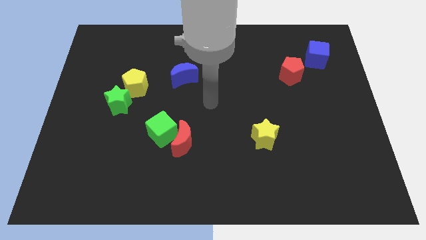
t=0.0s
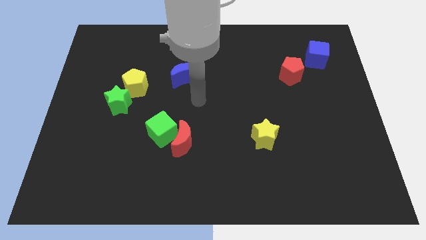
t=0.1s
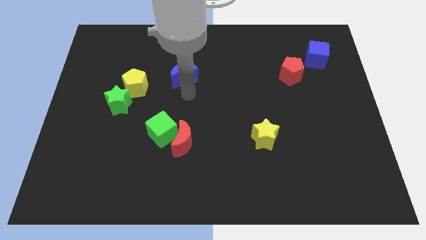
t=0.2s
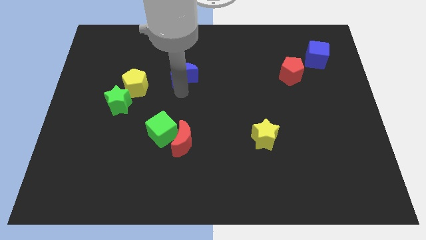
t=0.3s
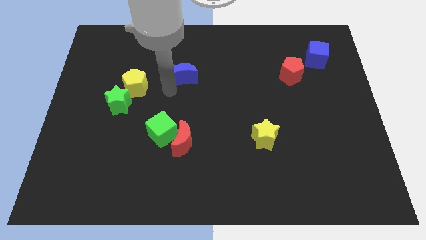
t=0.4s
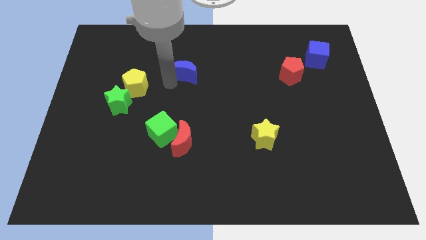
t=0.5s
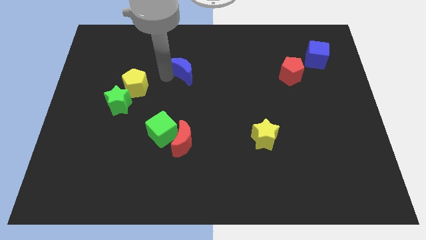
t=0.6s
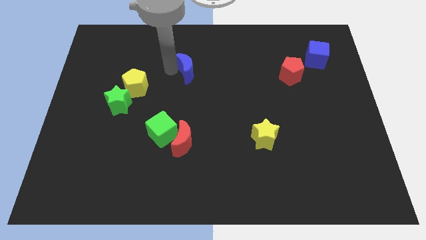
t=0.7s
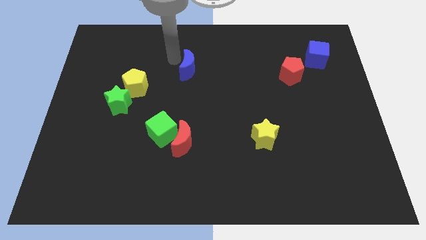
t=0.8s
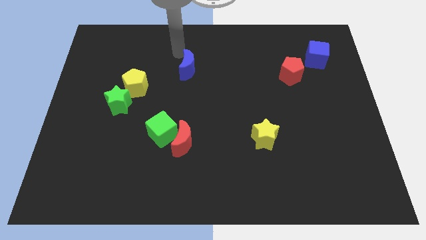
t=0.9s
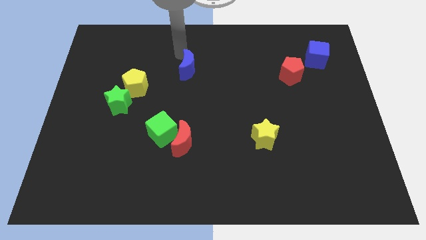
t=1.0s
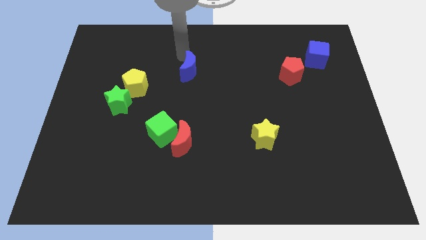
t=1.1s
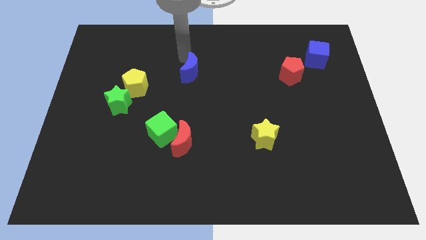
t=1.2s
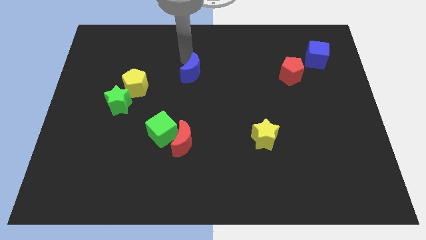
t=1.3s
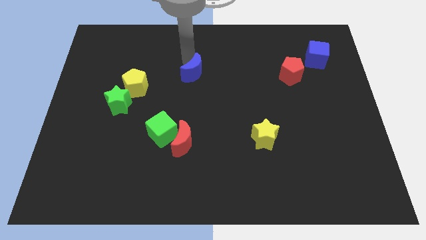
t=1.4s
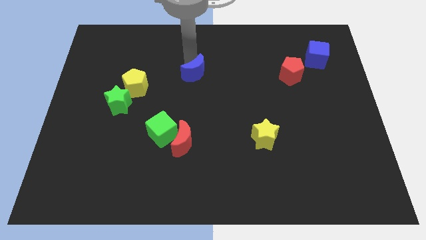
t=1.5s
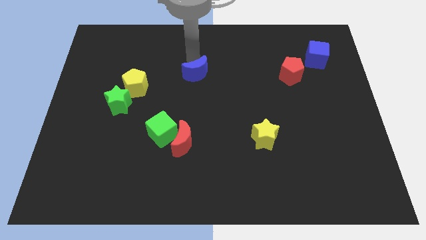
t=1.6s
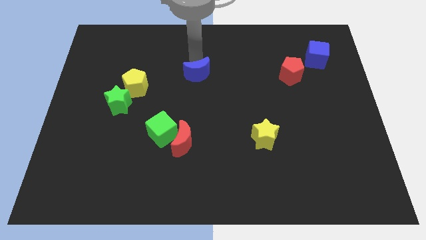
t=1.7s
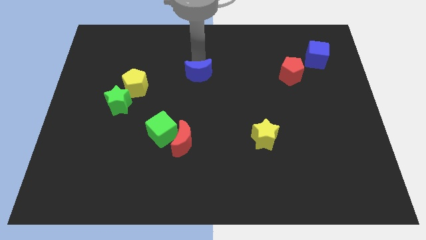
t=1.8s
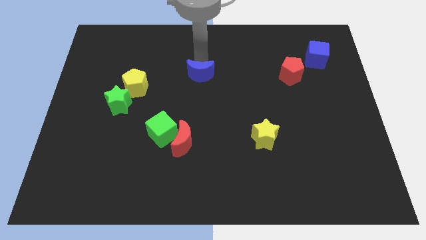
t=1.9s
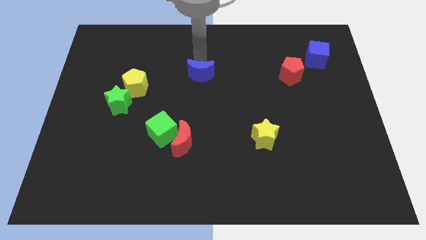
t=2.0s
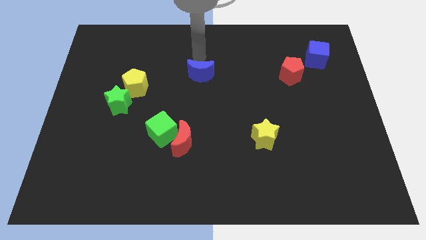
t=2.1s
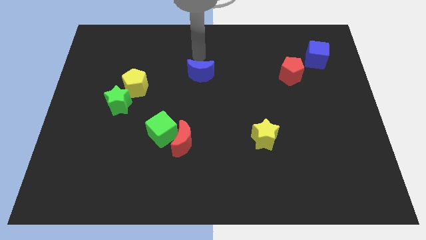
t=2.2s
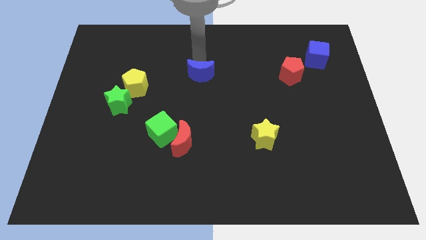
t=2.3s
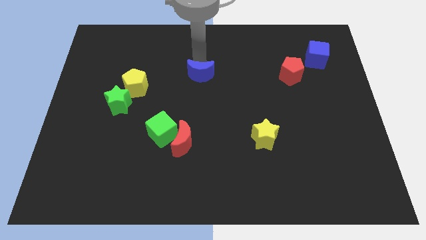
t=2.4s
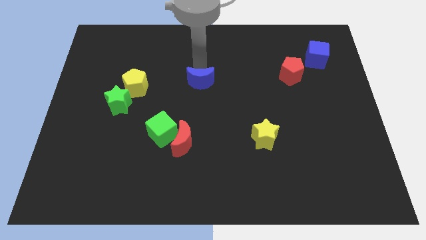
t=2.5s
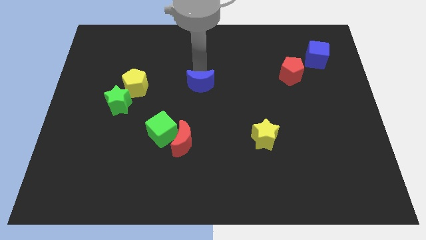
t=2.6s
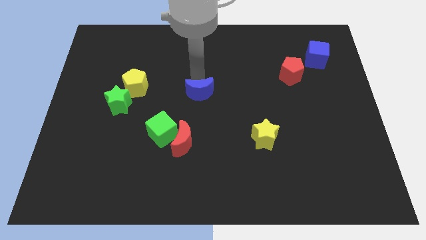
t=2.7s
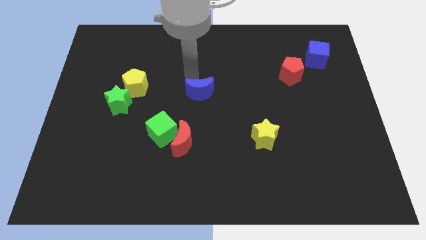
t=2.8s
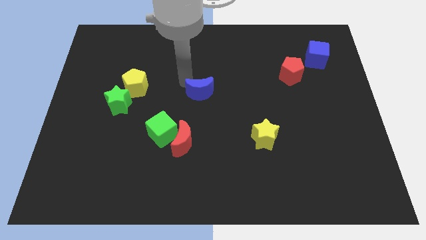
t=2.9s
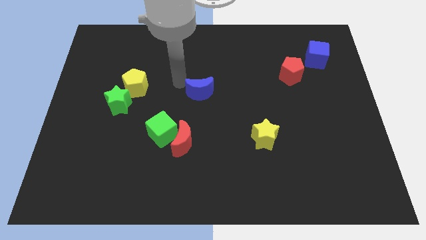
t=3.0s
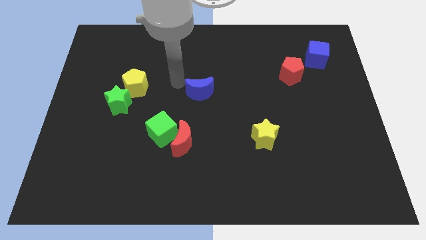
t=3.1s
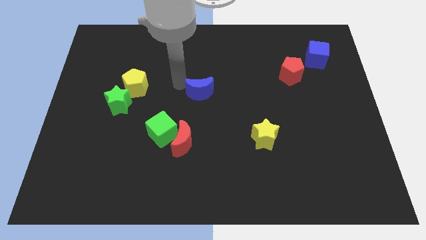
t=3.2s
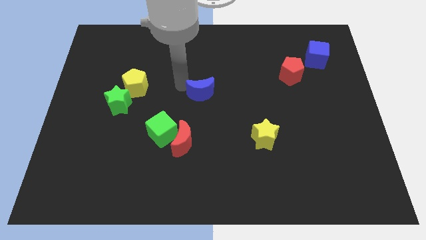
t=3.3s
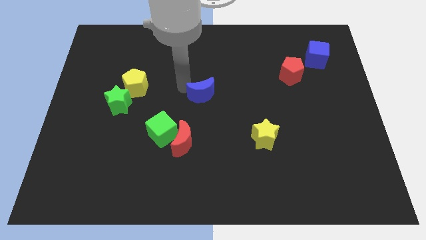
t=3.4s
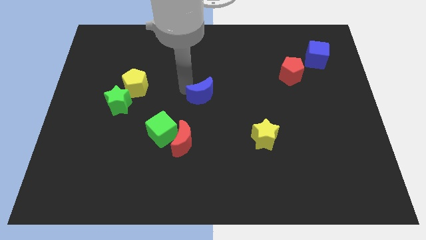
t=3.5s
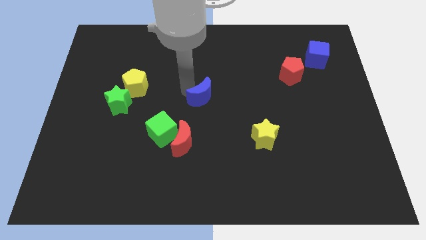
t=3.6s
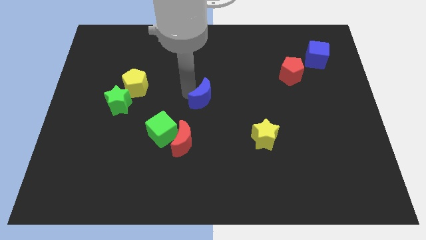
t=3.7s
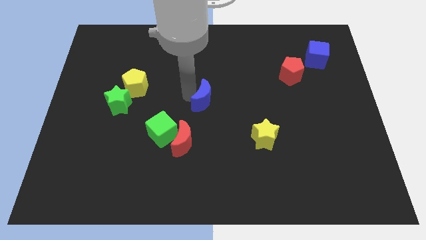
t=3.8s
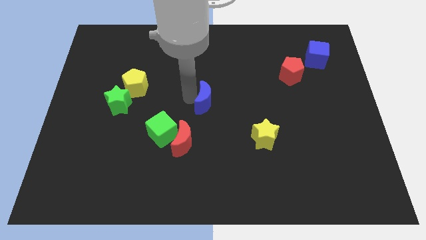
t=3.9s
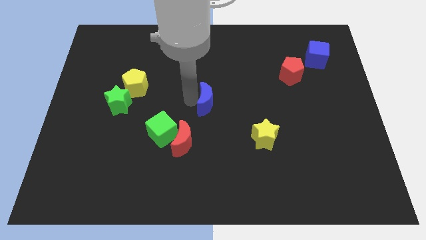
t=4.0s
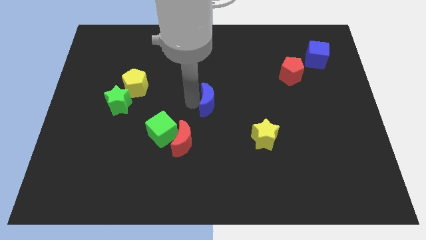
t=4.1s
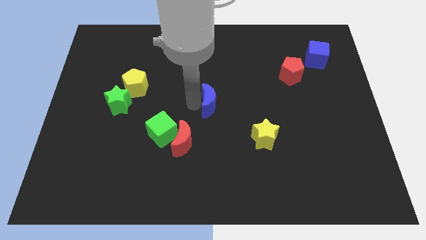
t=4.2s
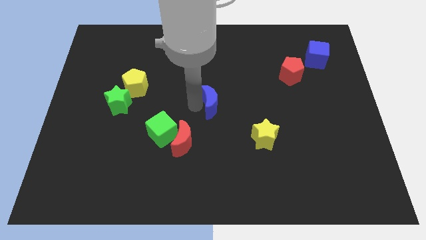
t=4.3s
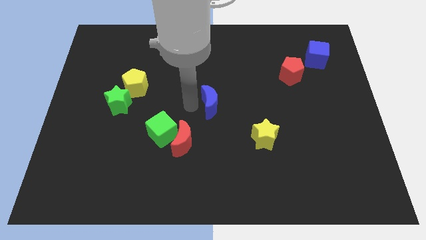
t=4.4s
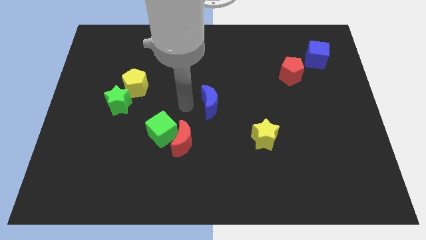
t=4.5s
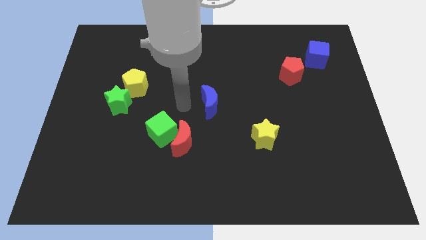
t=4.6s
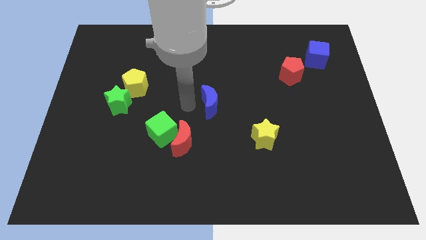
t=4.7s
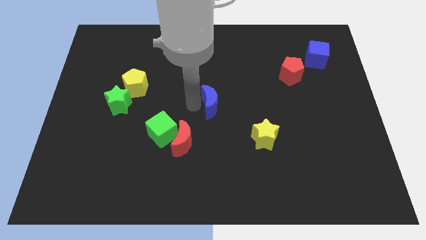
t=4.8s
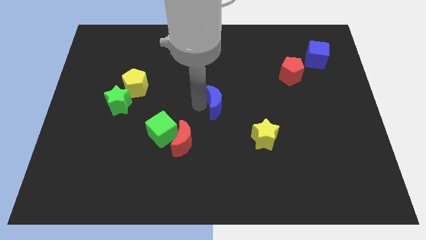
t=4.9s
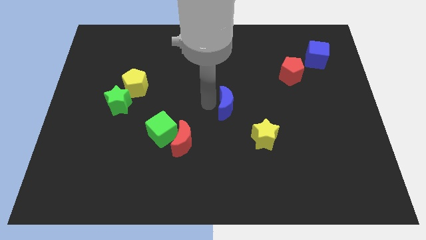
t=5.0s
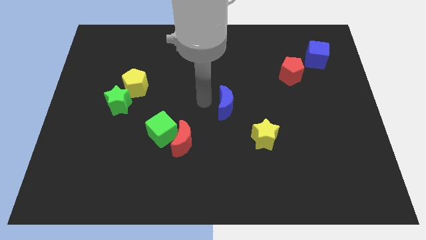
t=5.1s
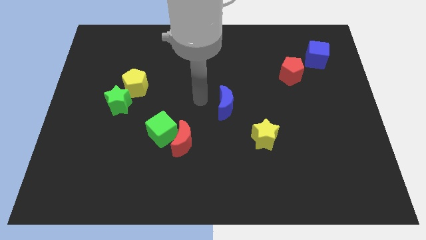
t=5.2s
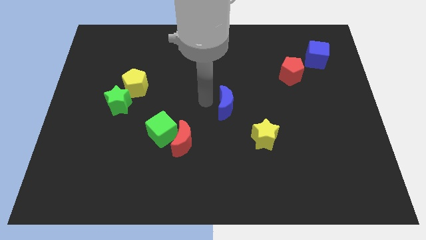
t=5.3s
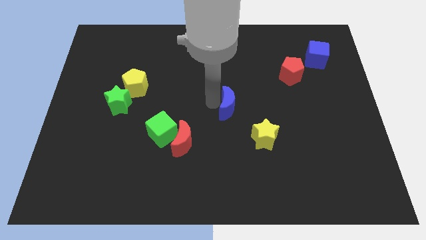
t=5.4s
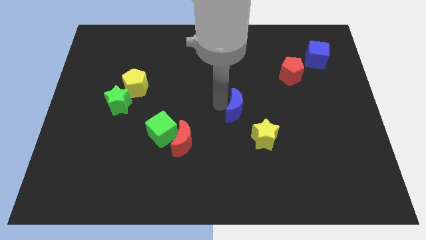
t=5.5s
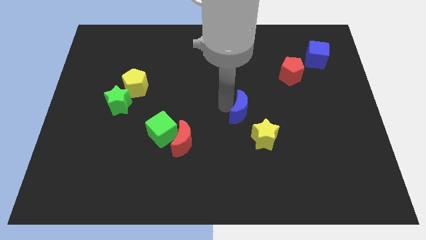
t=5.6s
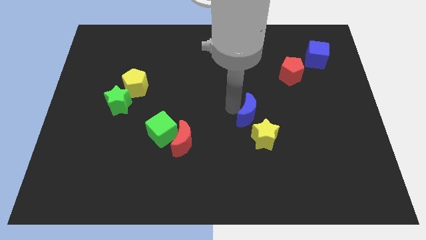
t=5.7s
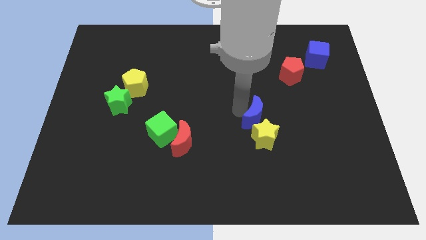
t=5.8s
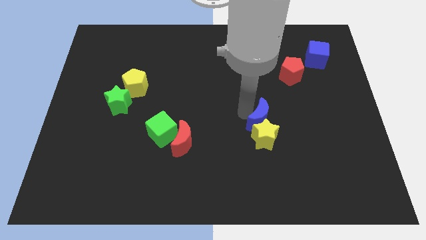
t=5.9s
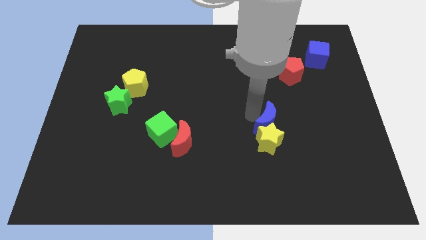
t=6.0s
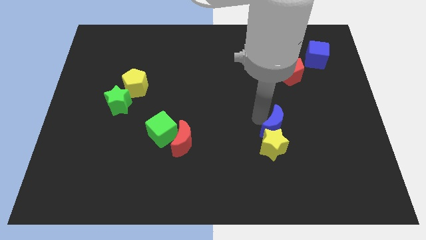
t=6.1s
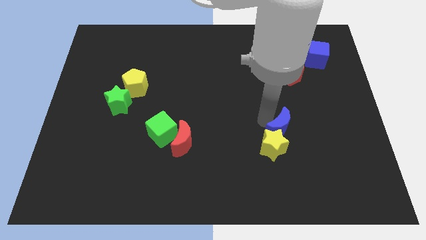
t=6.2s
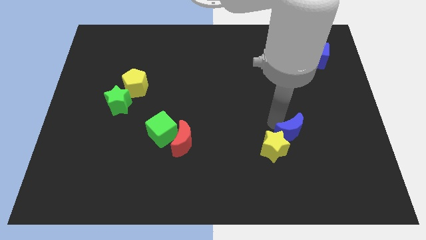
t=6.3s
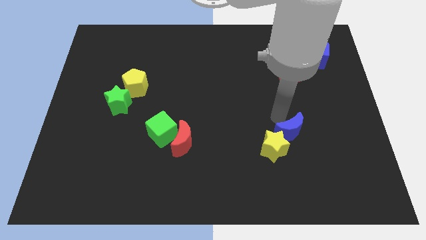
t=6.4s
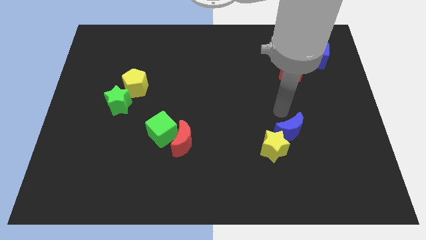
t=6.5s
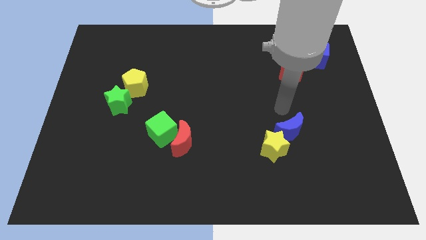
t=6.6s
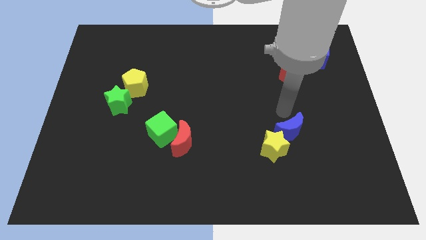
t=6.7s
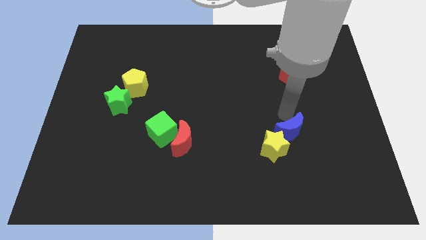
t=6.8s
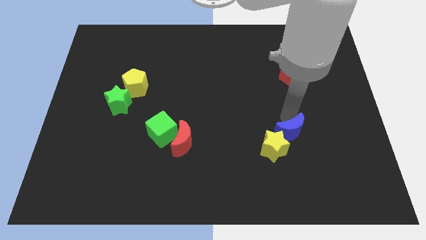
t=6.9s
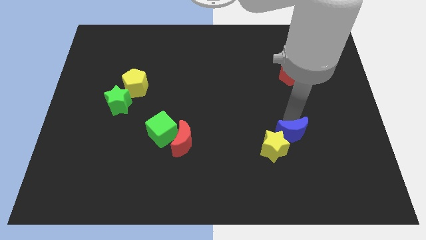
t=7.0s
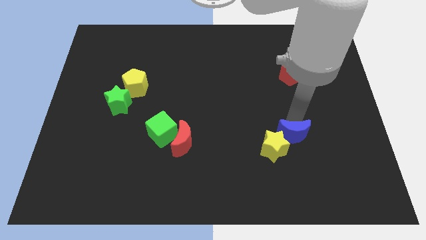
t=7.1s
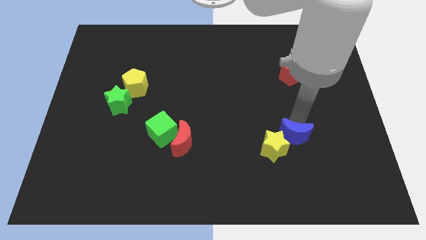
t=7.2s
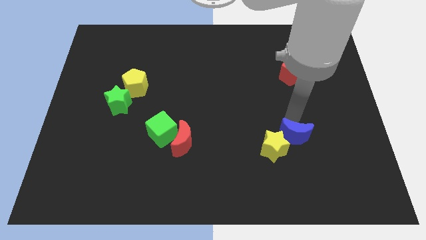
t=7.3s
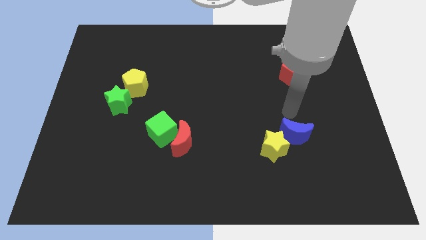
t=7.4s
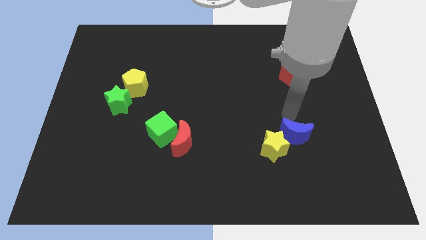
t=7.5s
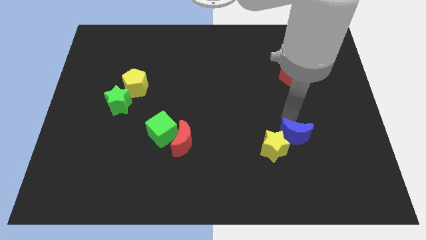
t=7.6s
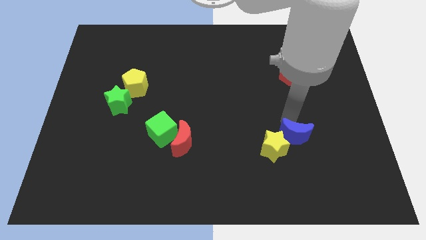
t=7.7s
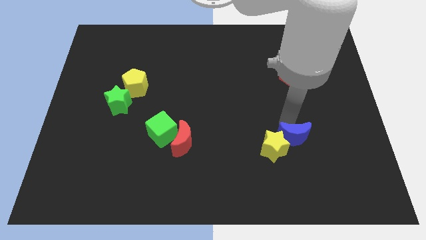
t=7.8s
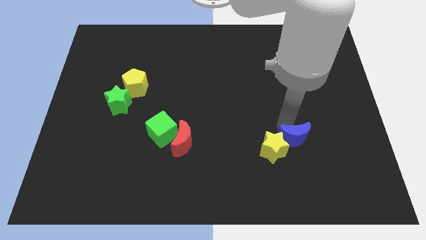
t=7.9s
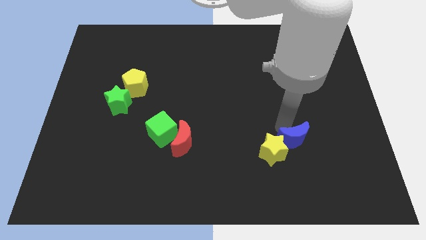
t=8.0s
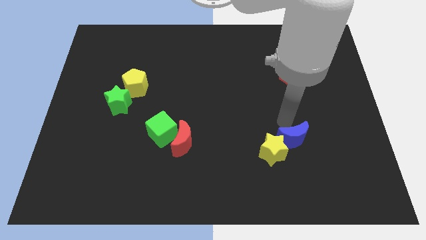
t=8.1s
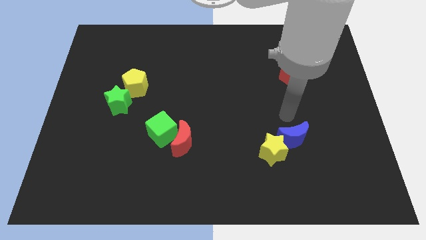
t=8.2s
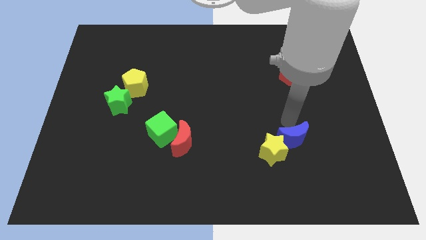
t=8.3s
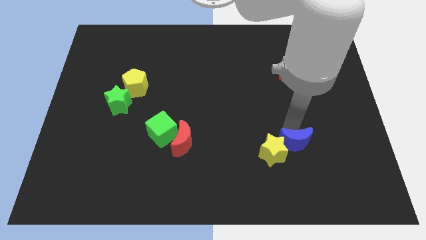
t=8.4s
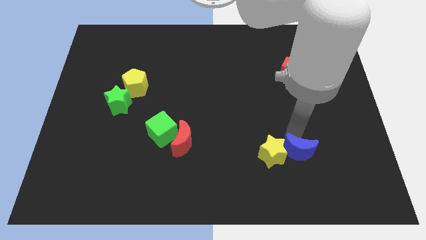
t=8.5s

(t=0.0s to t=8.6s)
push the blue moon diagonally down and to the right of the yellow star
